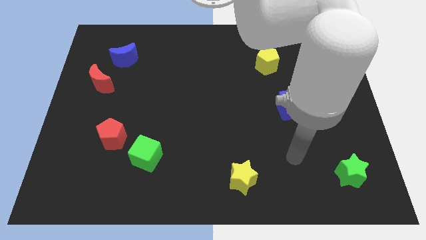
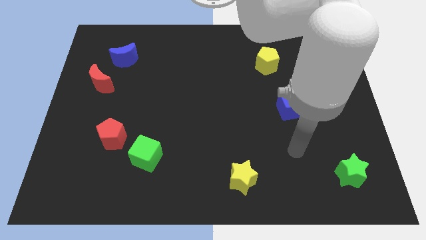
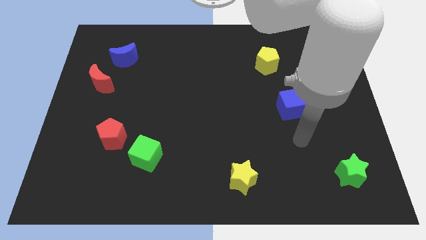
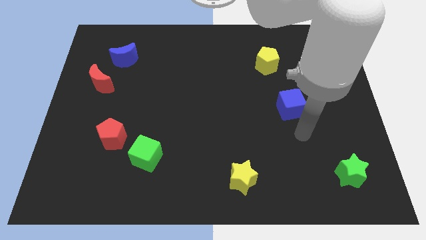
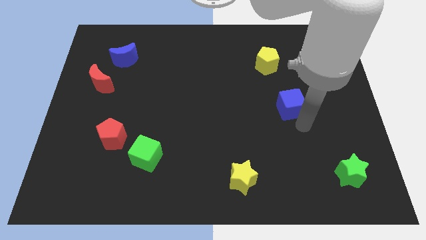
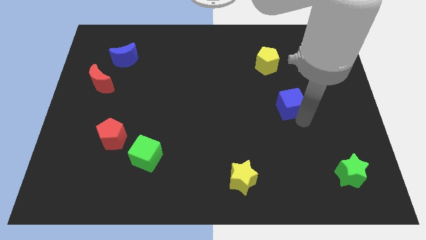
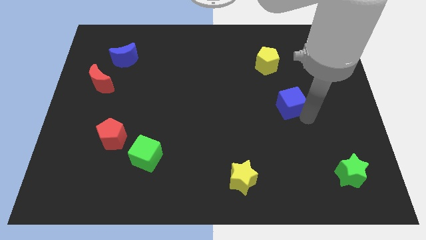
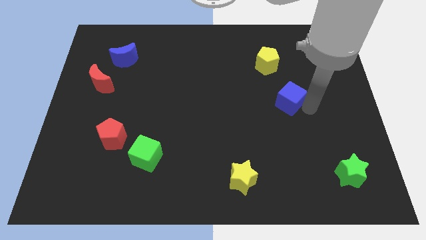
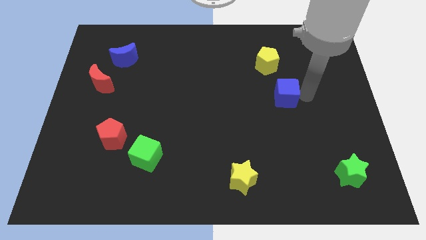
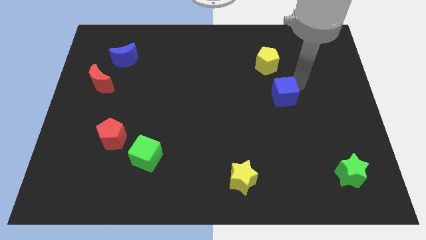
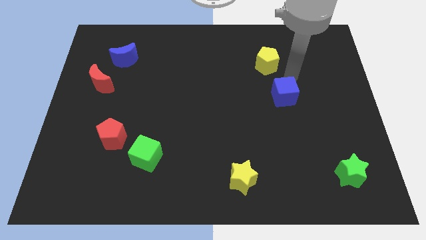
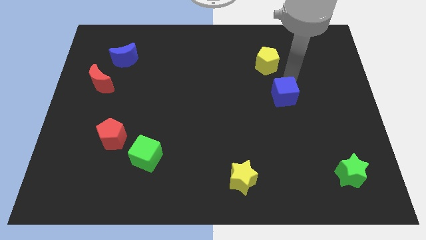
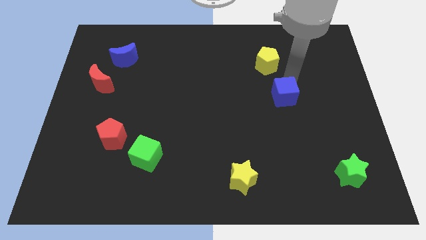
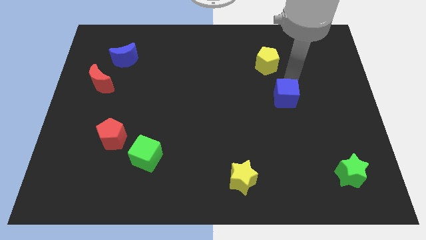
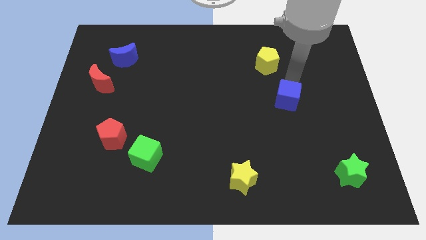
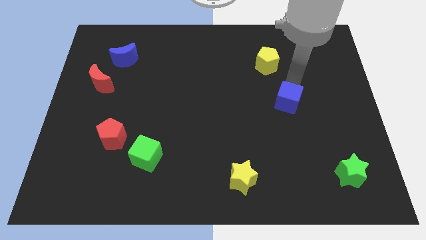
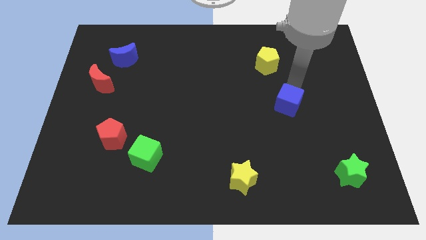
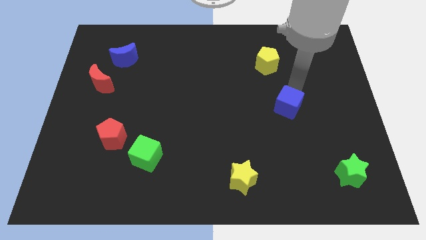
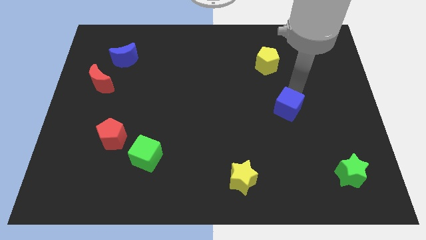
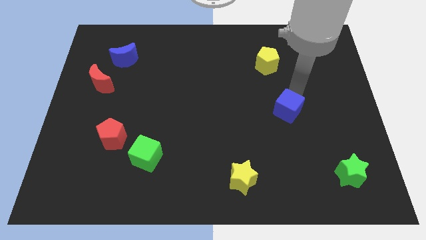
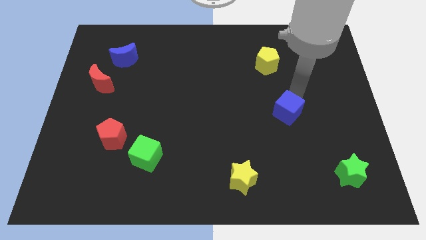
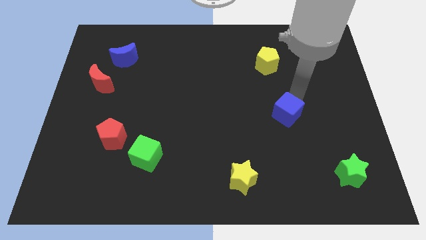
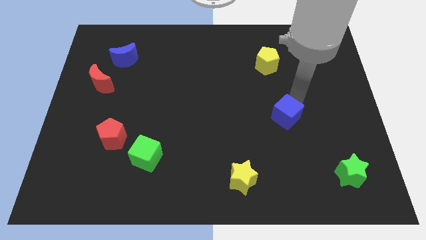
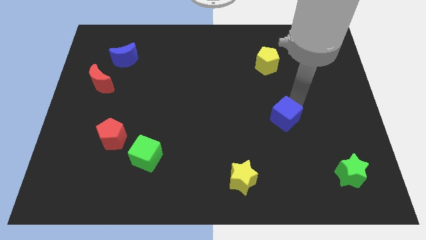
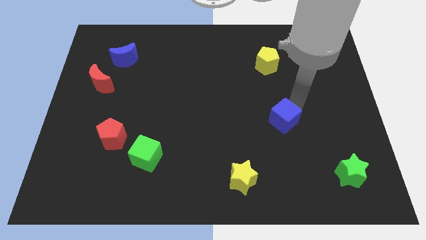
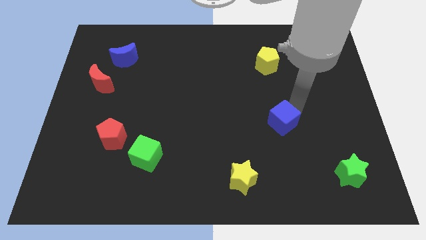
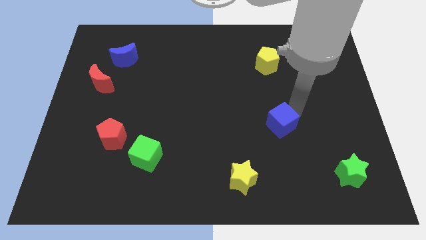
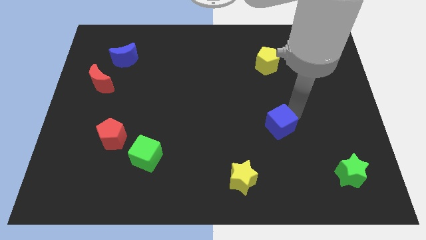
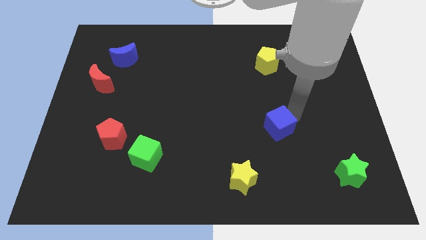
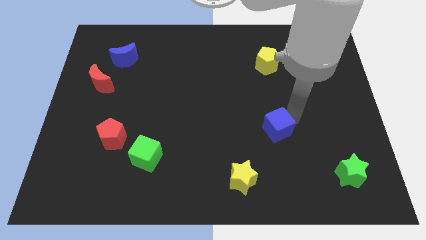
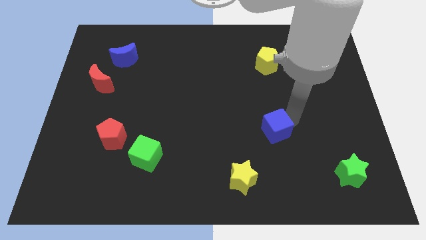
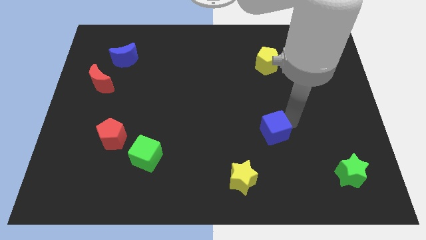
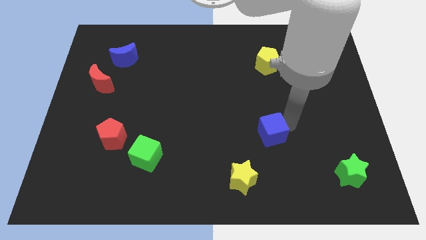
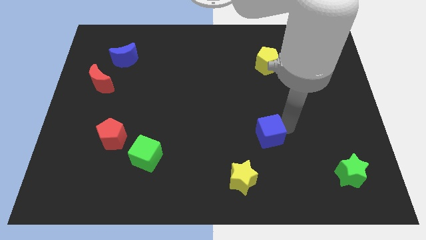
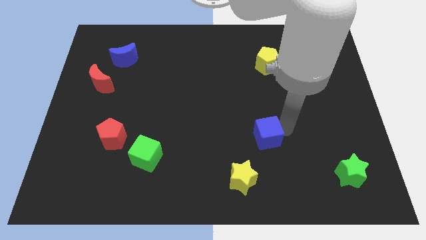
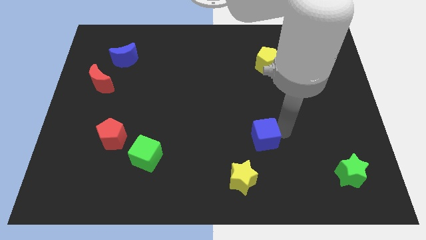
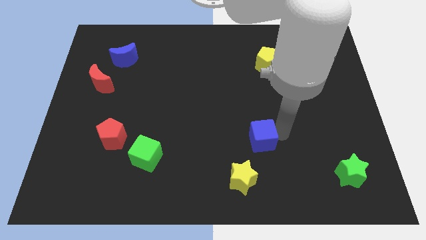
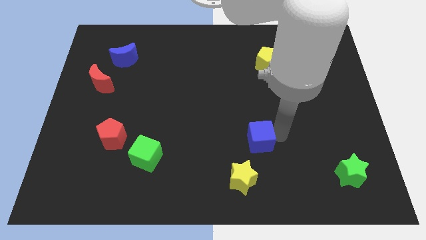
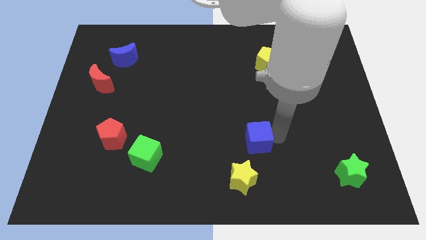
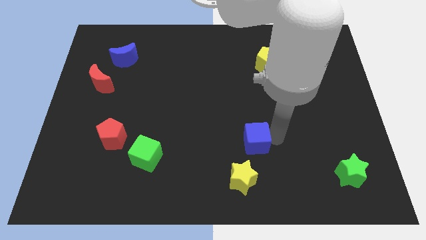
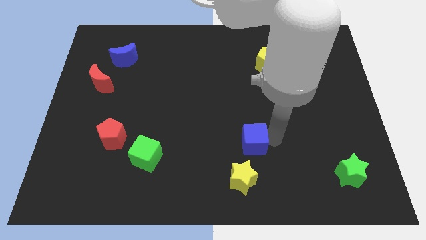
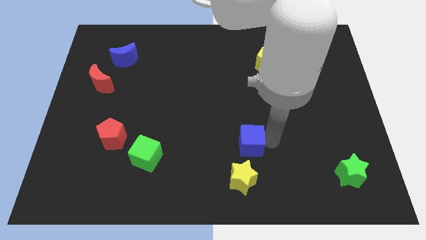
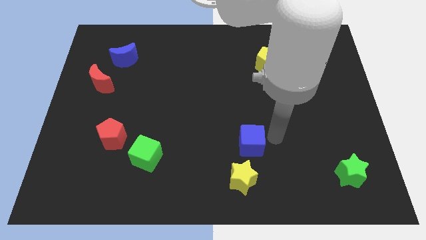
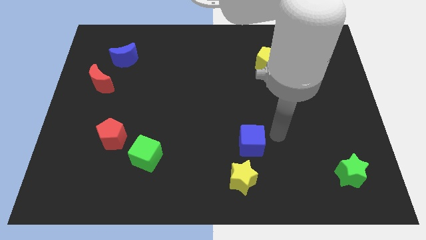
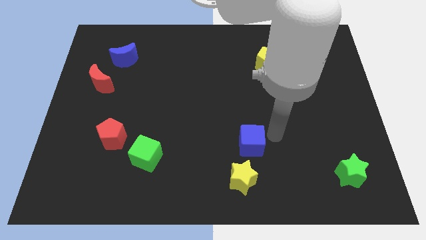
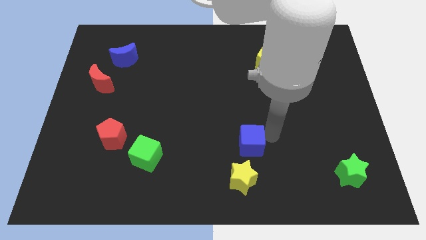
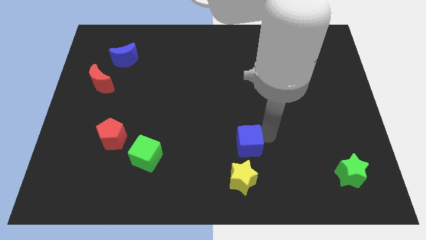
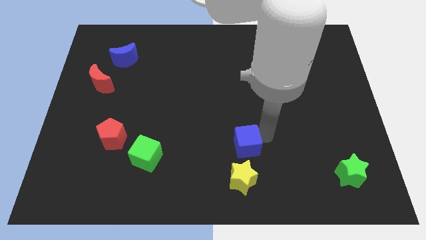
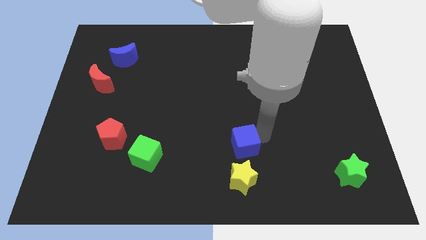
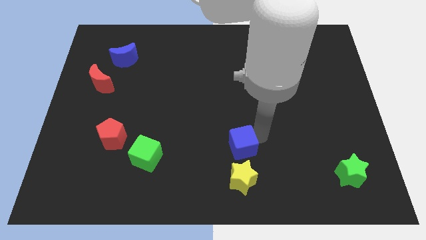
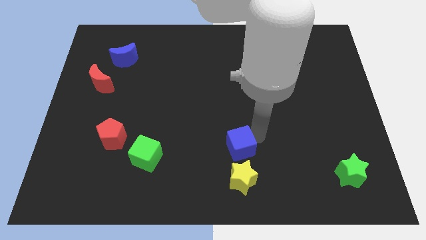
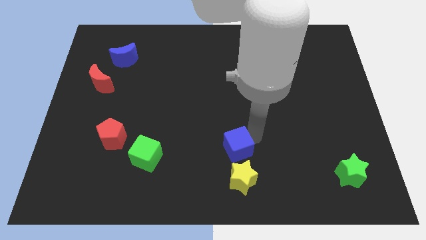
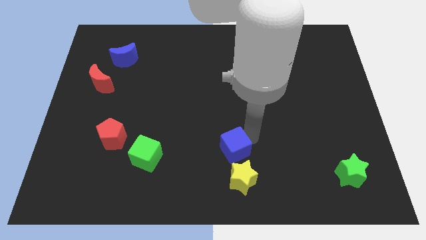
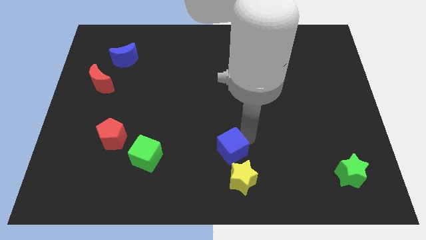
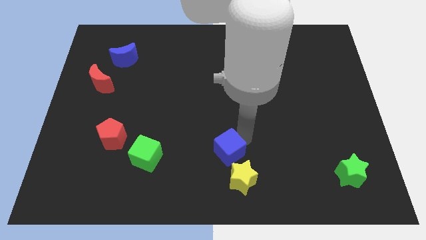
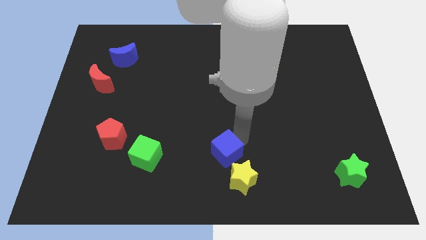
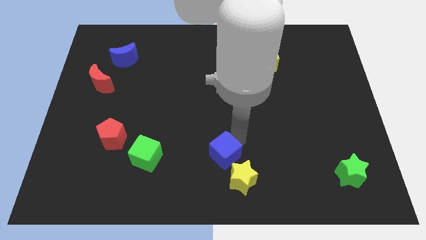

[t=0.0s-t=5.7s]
push the blue cube to the bottom
